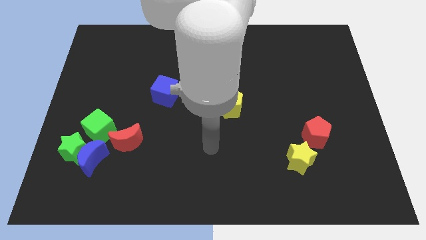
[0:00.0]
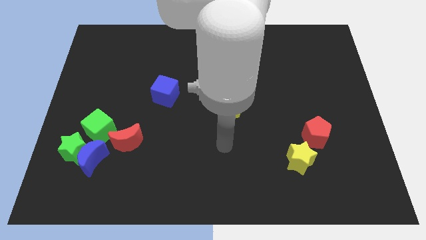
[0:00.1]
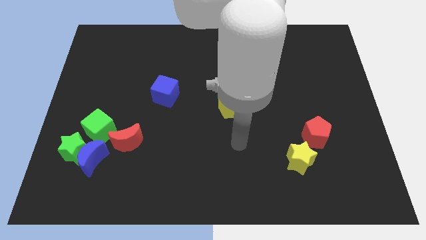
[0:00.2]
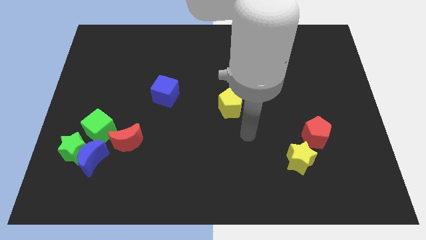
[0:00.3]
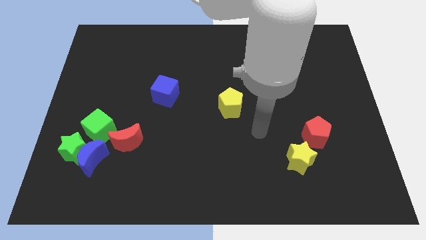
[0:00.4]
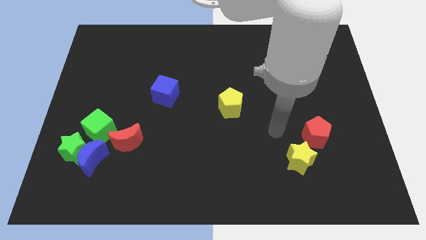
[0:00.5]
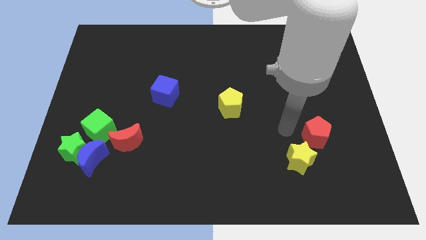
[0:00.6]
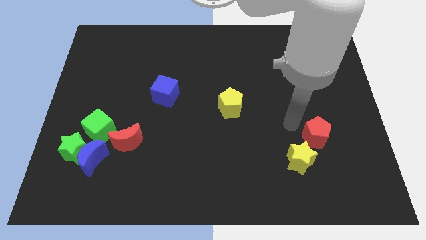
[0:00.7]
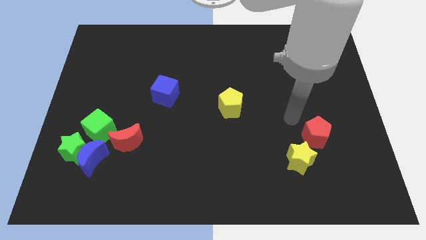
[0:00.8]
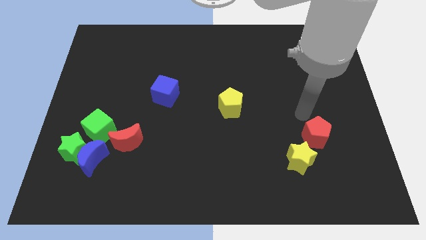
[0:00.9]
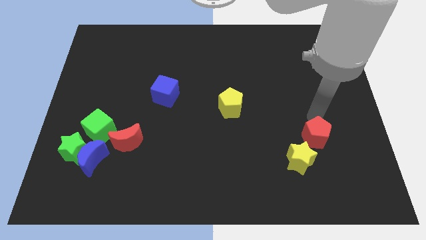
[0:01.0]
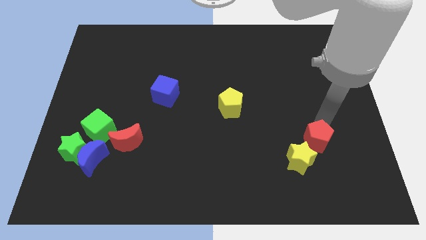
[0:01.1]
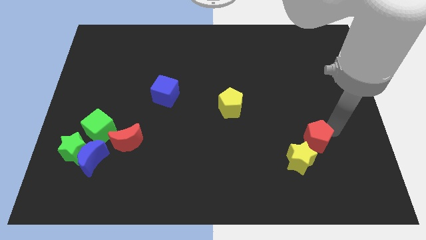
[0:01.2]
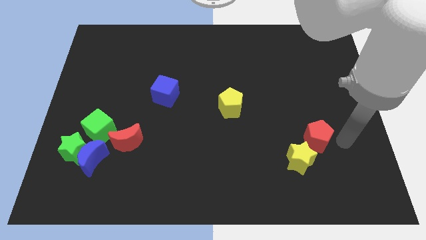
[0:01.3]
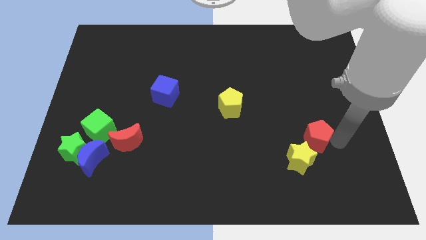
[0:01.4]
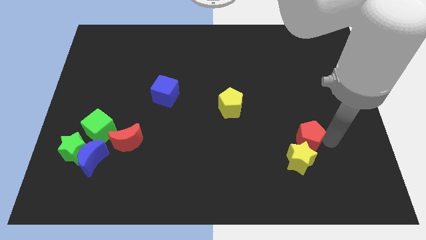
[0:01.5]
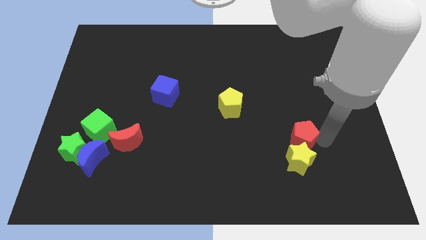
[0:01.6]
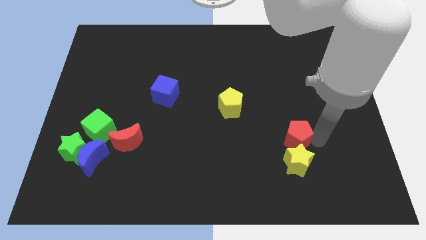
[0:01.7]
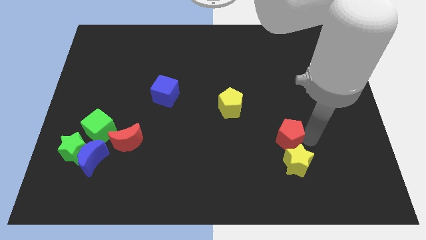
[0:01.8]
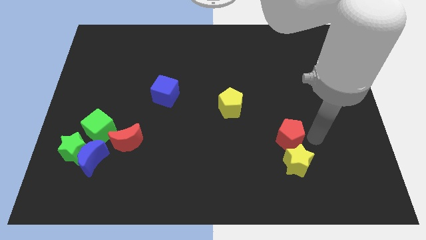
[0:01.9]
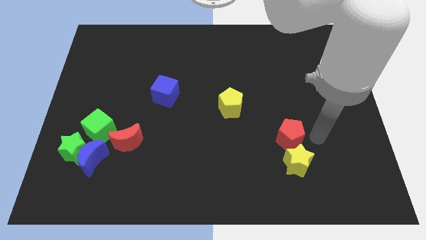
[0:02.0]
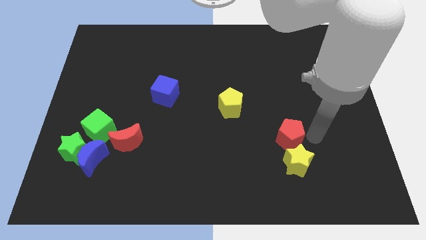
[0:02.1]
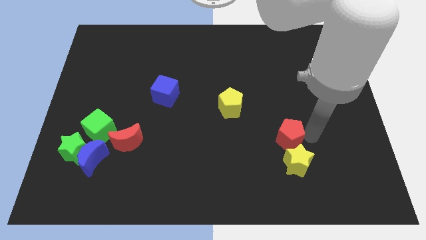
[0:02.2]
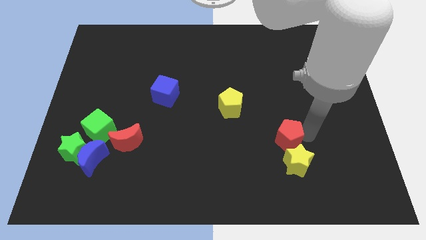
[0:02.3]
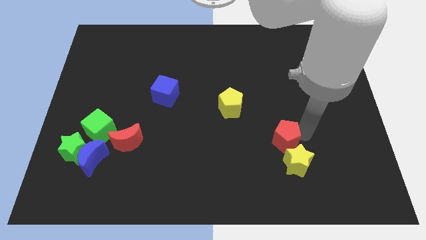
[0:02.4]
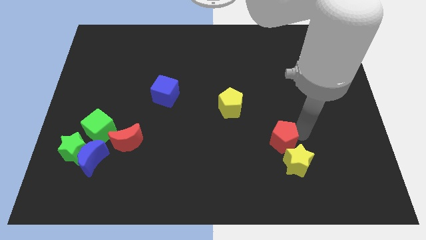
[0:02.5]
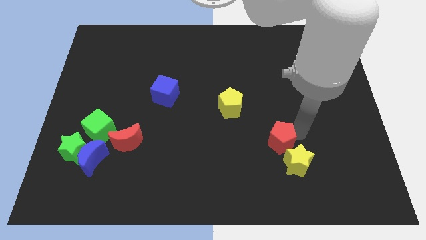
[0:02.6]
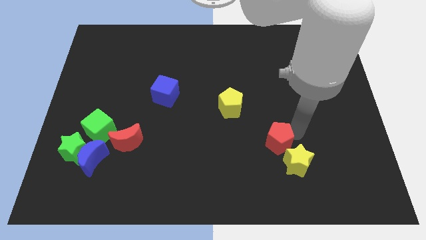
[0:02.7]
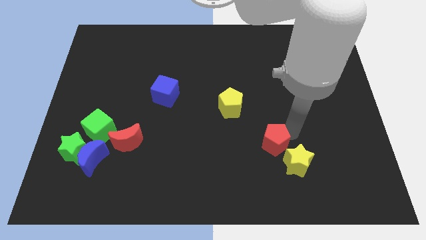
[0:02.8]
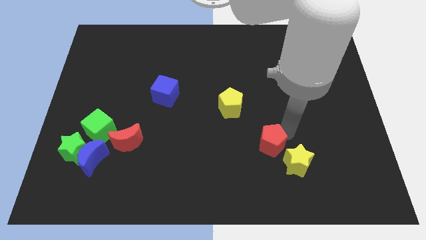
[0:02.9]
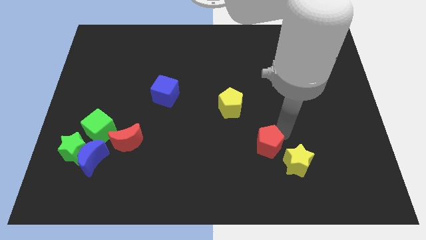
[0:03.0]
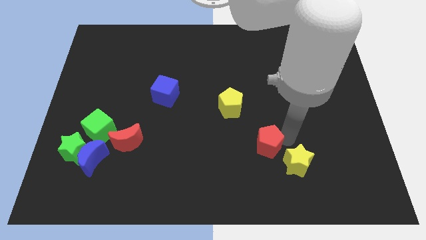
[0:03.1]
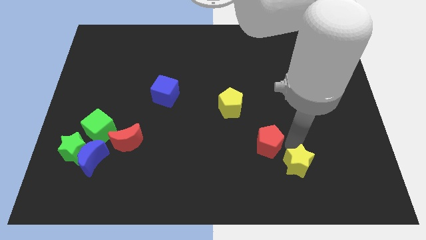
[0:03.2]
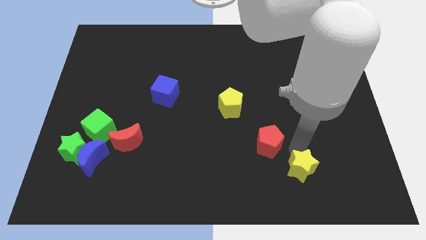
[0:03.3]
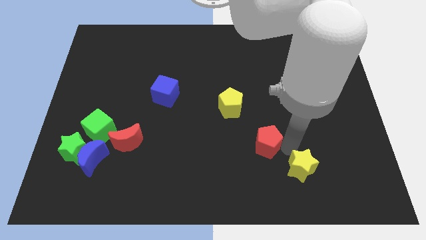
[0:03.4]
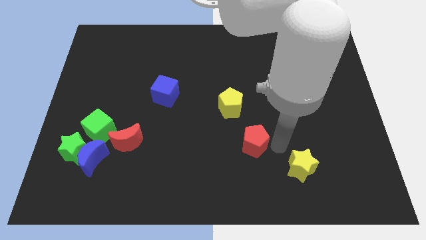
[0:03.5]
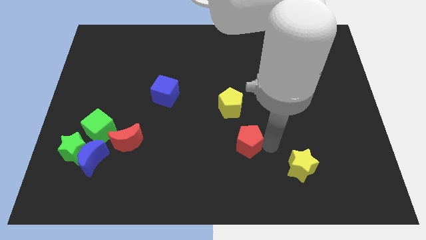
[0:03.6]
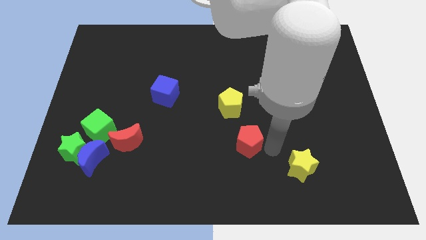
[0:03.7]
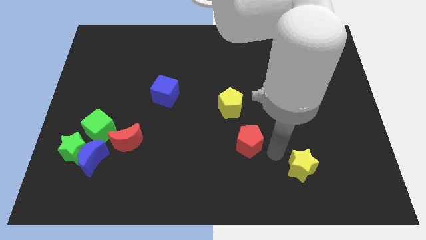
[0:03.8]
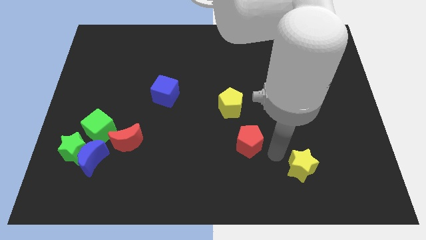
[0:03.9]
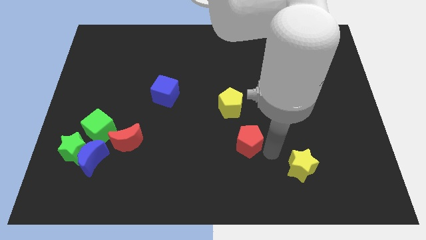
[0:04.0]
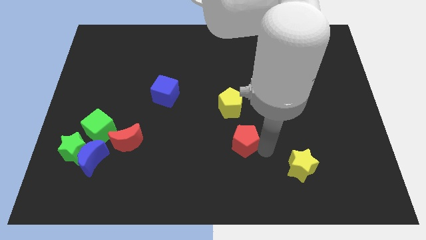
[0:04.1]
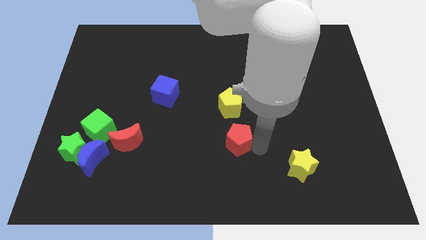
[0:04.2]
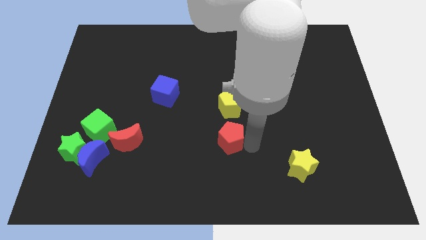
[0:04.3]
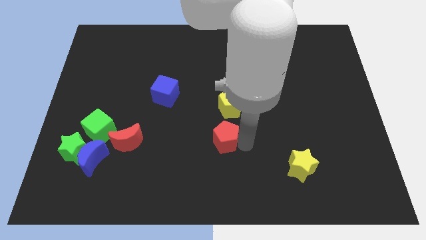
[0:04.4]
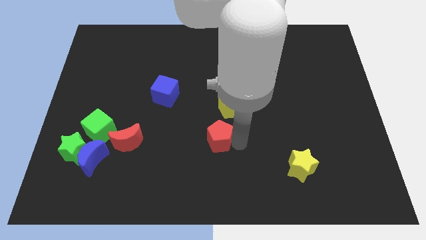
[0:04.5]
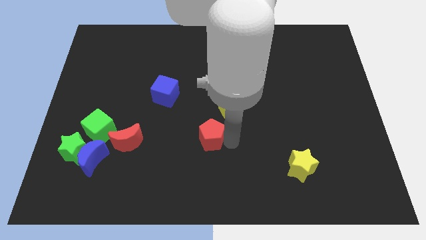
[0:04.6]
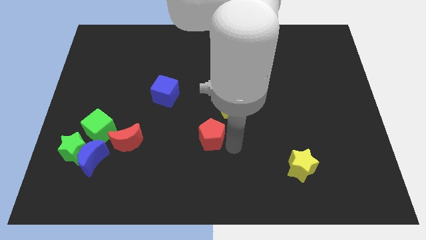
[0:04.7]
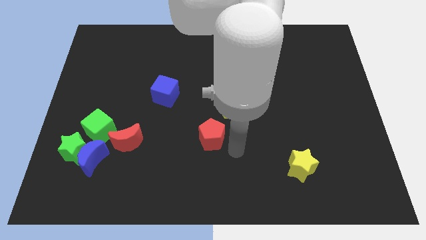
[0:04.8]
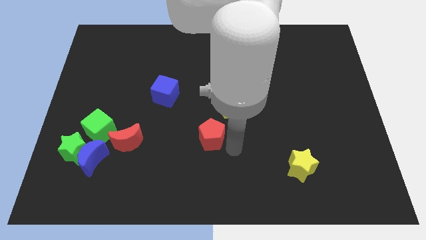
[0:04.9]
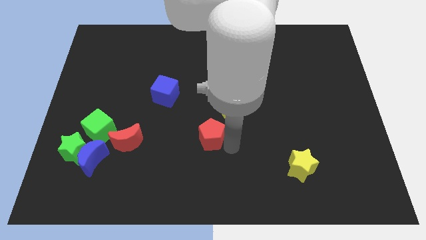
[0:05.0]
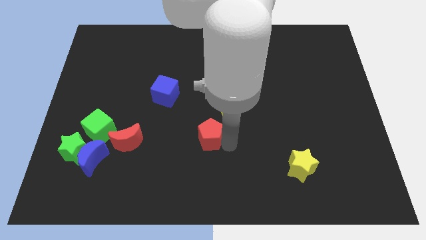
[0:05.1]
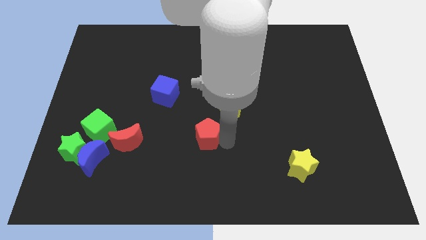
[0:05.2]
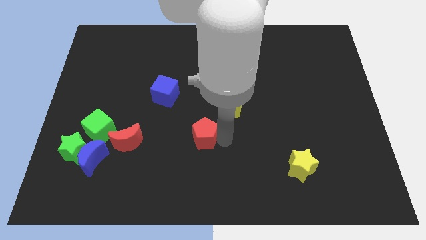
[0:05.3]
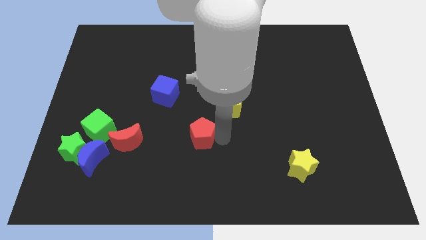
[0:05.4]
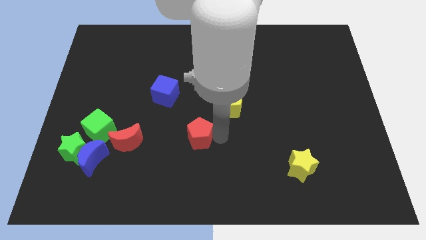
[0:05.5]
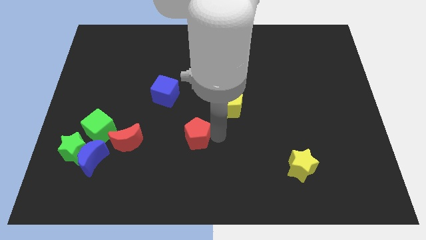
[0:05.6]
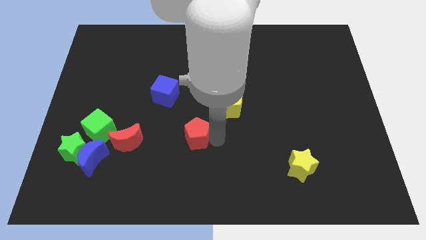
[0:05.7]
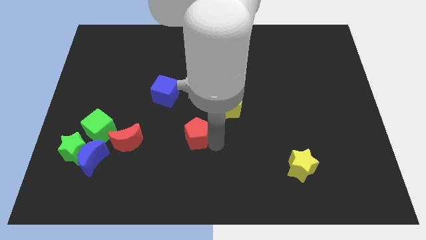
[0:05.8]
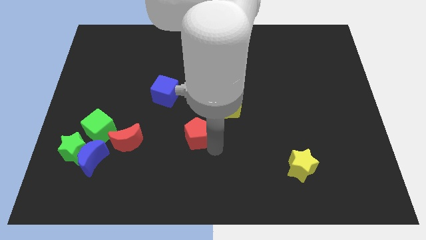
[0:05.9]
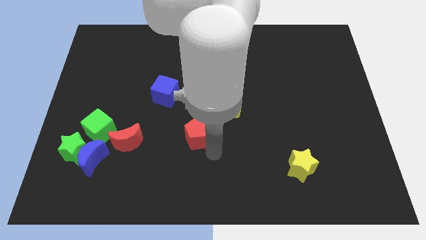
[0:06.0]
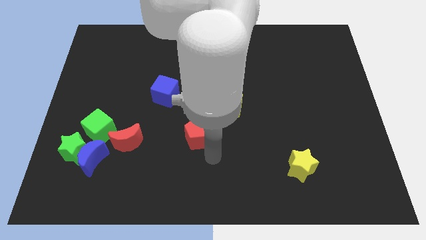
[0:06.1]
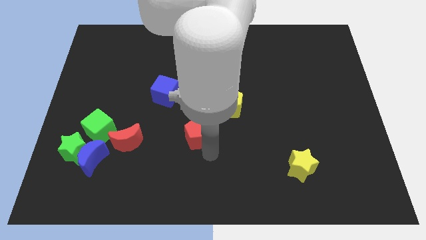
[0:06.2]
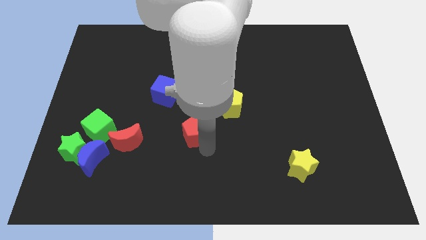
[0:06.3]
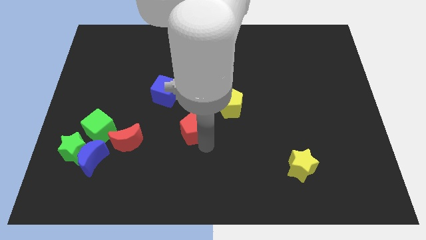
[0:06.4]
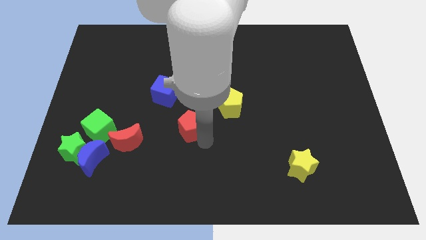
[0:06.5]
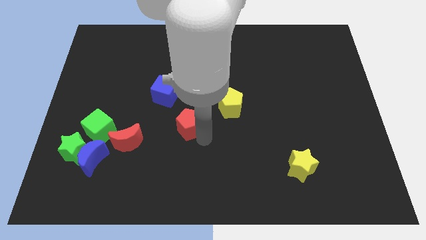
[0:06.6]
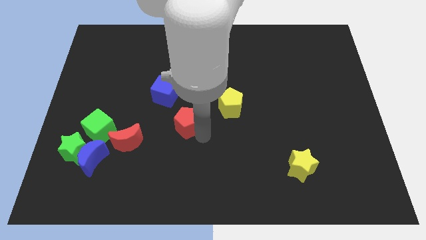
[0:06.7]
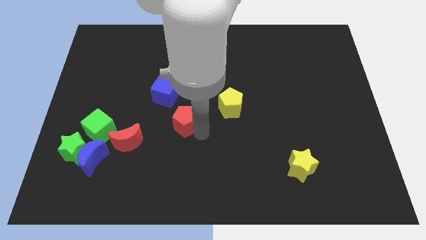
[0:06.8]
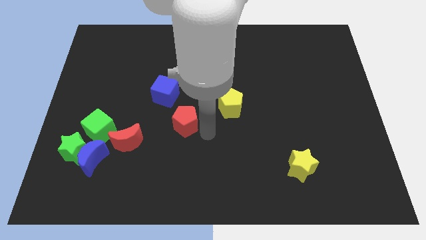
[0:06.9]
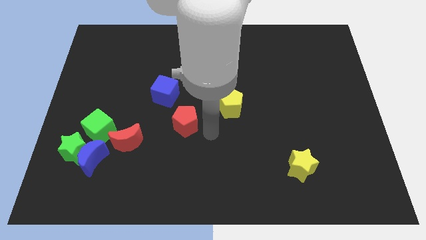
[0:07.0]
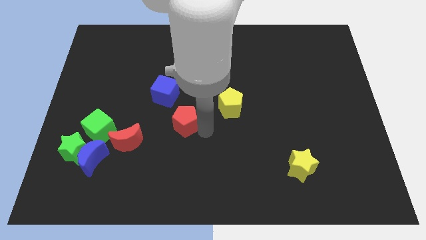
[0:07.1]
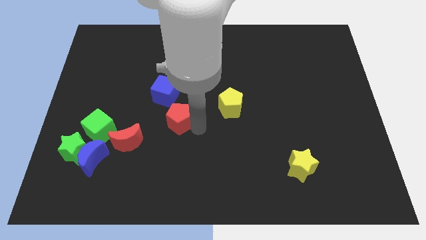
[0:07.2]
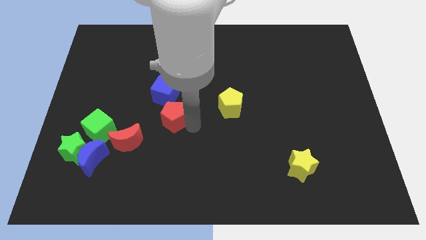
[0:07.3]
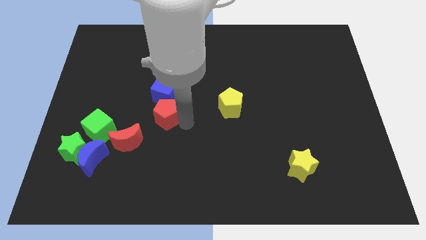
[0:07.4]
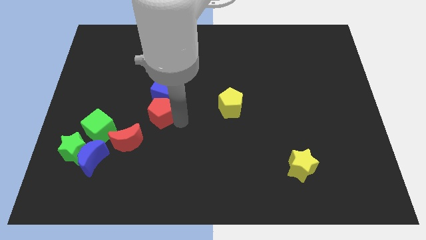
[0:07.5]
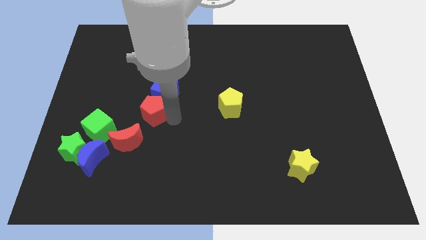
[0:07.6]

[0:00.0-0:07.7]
move the red pentagon above the red moon
